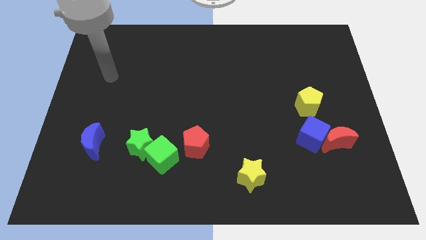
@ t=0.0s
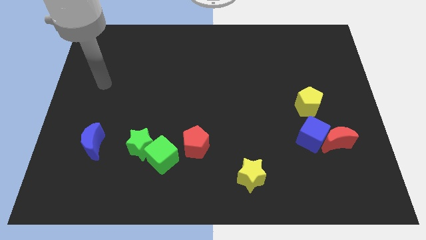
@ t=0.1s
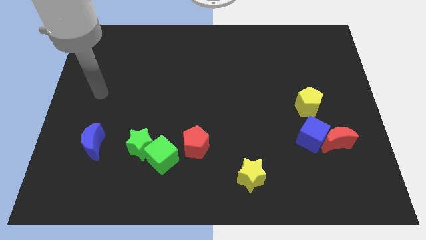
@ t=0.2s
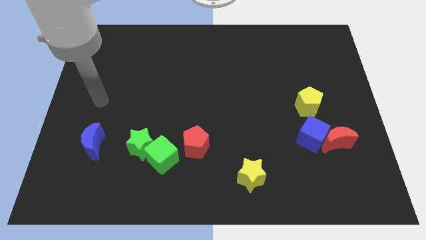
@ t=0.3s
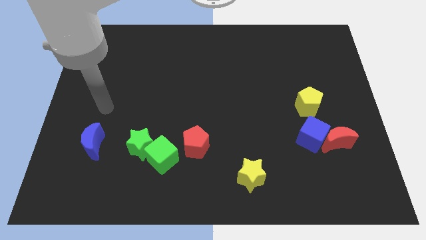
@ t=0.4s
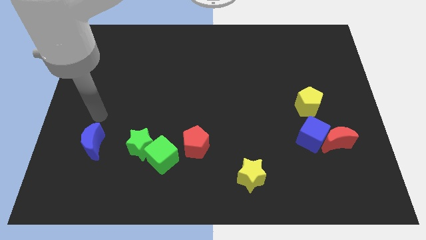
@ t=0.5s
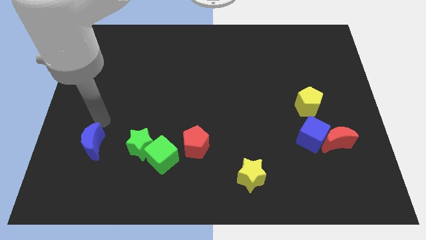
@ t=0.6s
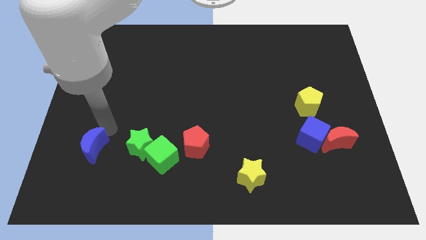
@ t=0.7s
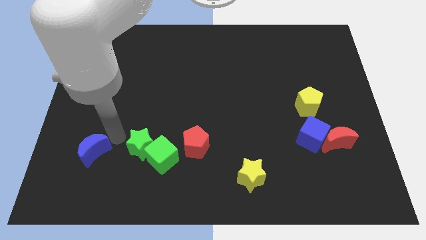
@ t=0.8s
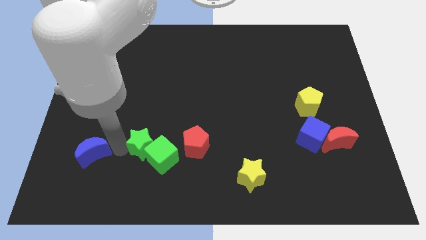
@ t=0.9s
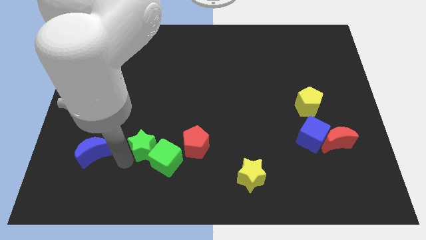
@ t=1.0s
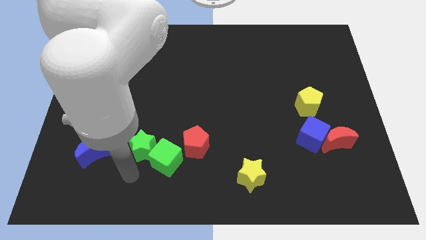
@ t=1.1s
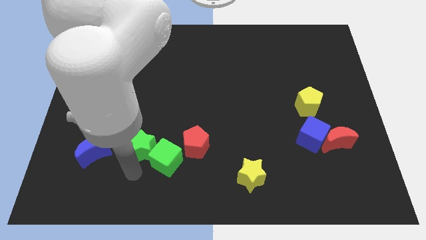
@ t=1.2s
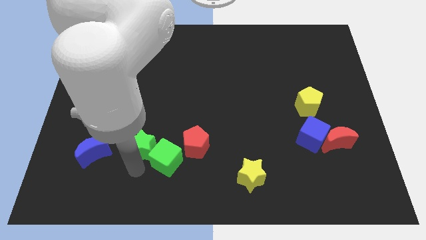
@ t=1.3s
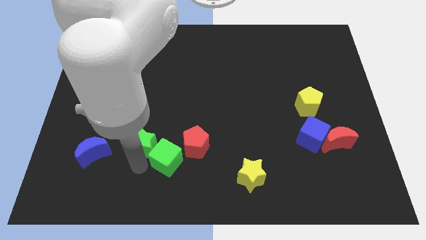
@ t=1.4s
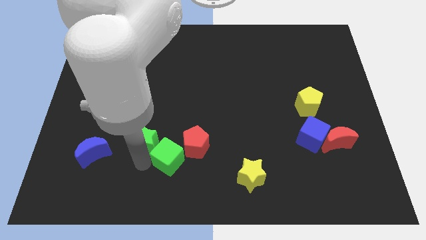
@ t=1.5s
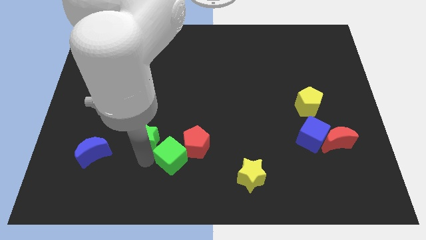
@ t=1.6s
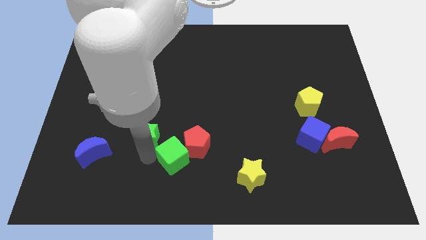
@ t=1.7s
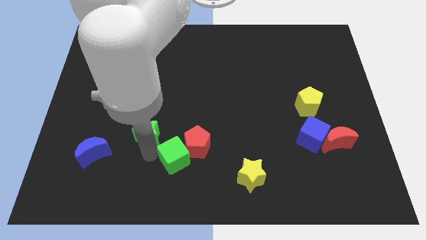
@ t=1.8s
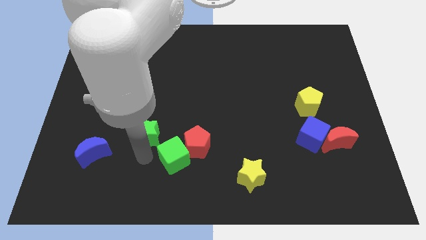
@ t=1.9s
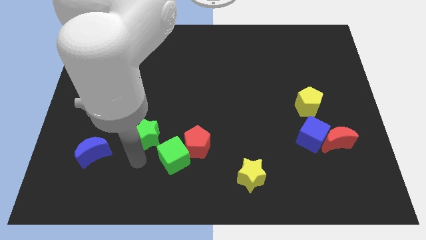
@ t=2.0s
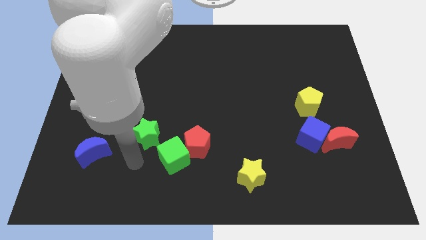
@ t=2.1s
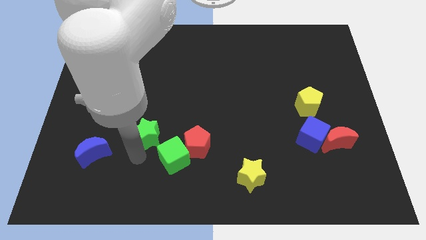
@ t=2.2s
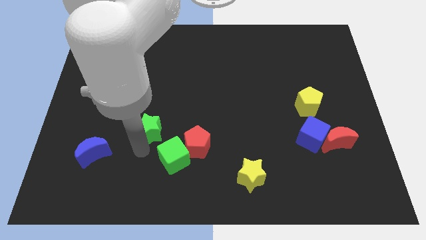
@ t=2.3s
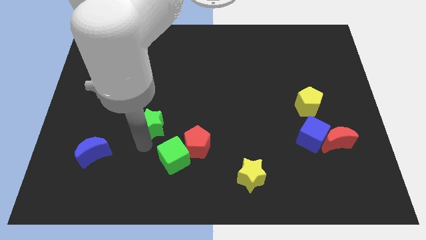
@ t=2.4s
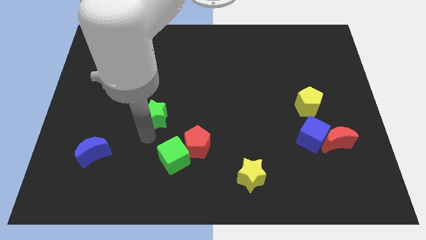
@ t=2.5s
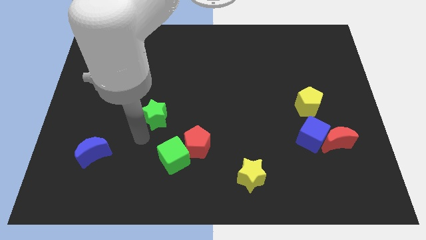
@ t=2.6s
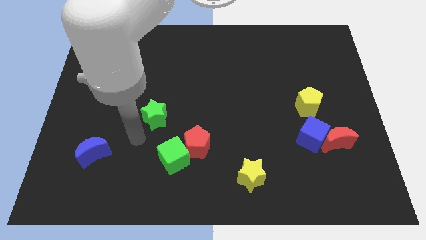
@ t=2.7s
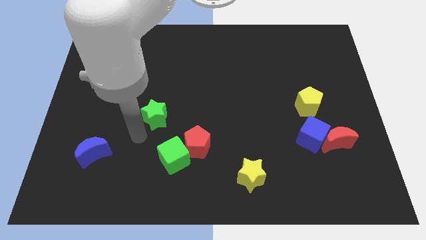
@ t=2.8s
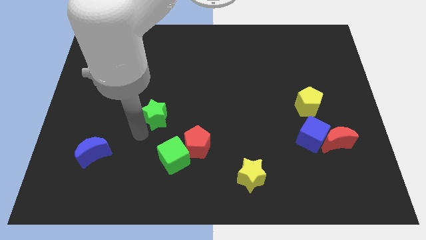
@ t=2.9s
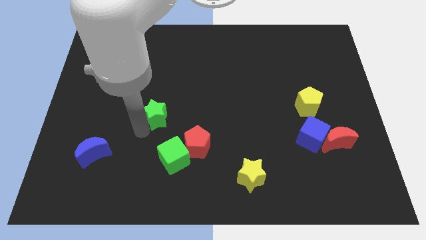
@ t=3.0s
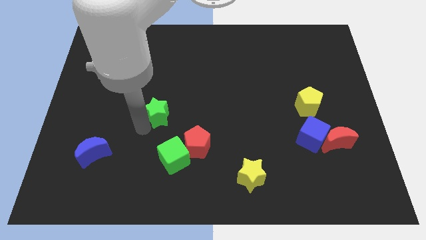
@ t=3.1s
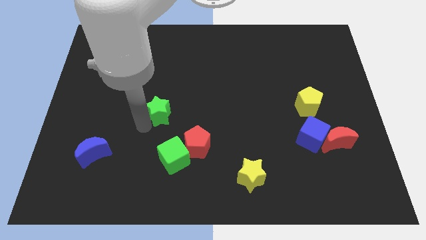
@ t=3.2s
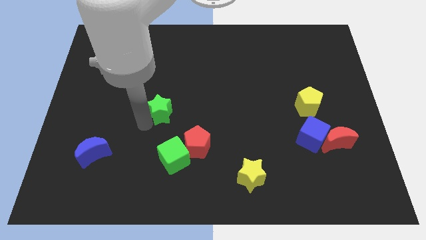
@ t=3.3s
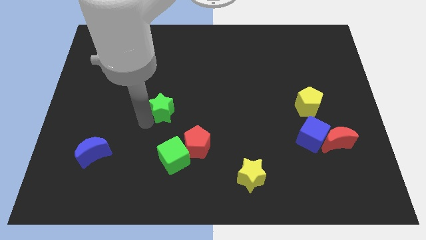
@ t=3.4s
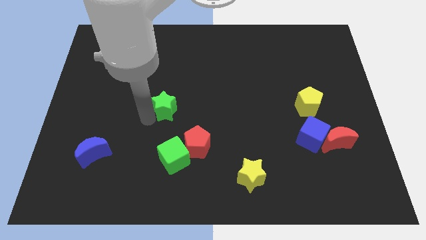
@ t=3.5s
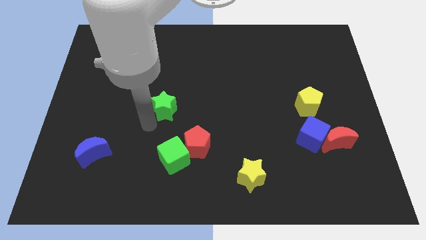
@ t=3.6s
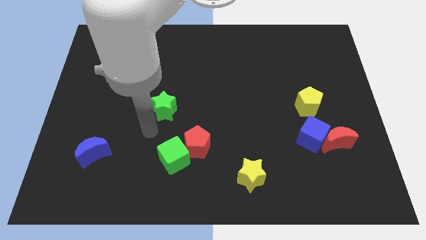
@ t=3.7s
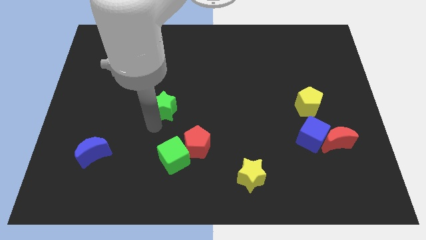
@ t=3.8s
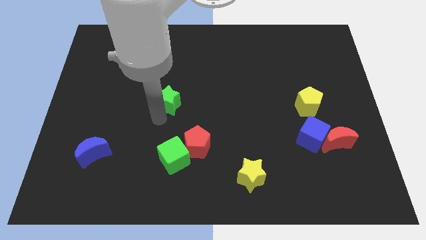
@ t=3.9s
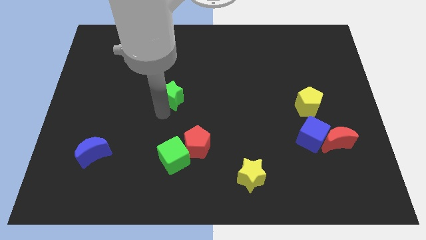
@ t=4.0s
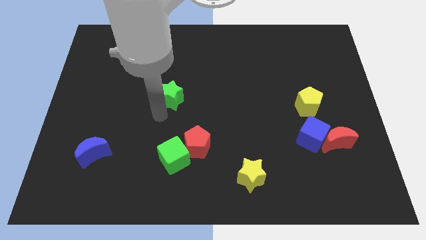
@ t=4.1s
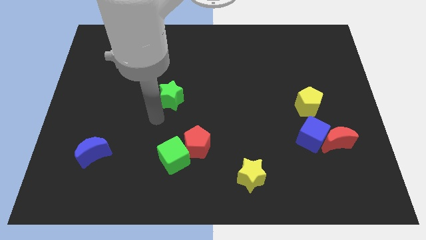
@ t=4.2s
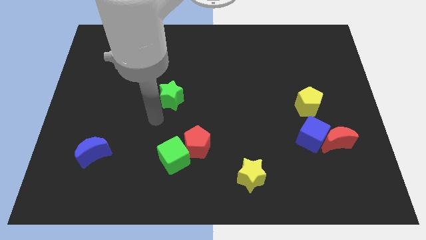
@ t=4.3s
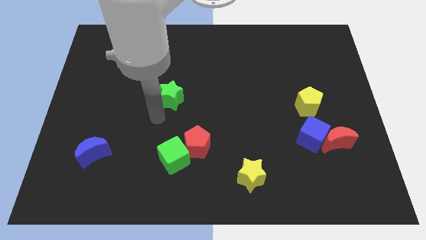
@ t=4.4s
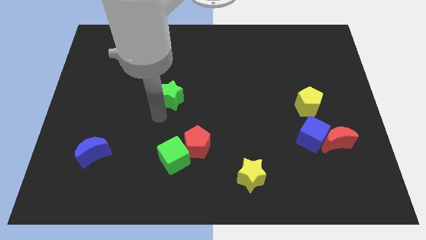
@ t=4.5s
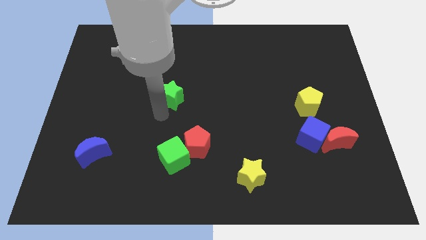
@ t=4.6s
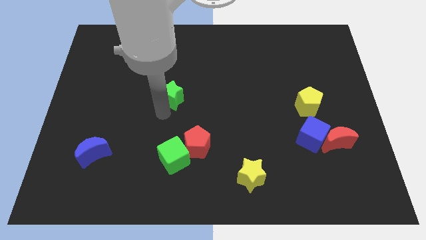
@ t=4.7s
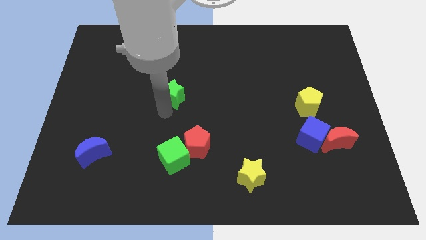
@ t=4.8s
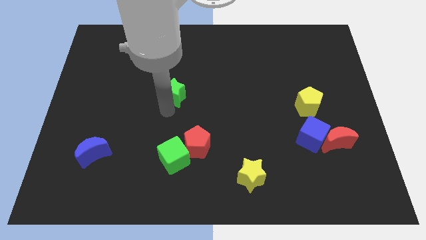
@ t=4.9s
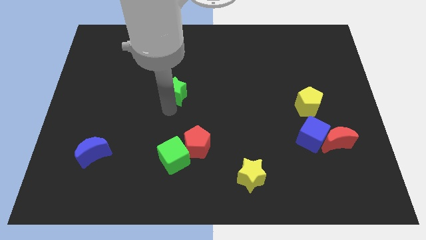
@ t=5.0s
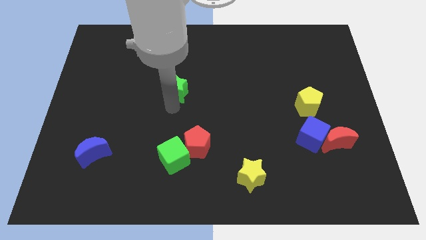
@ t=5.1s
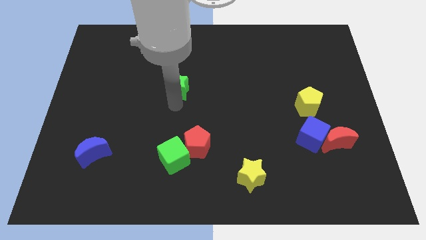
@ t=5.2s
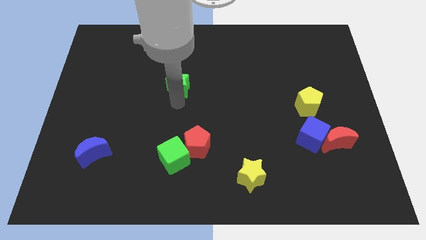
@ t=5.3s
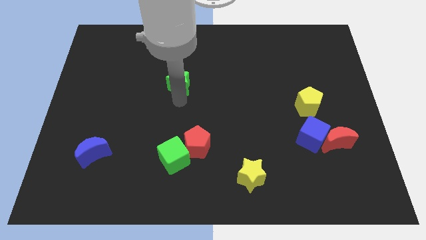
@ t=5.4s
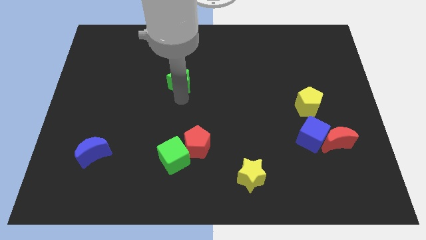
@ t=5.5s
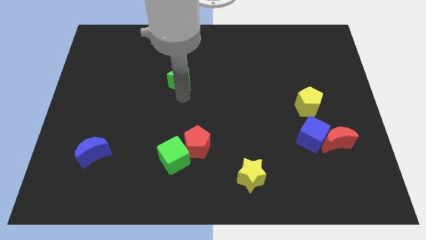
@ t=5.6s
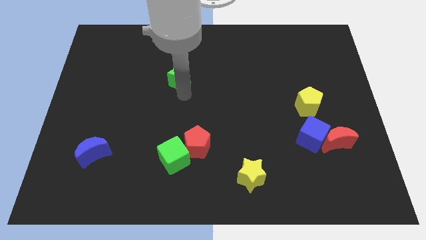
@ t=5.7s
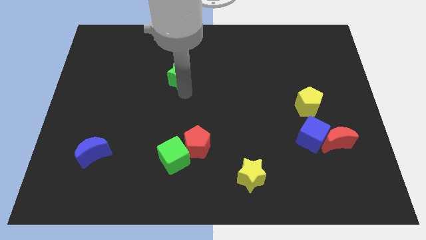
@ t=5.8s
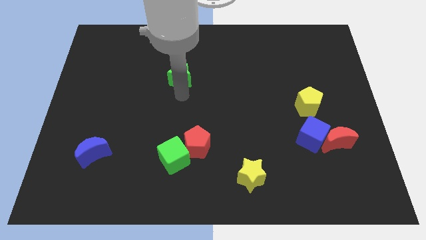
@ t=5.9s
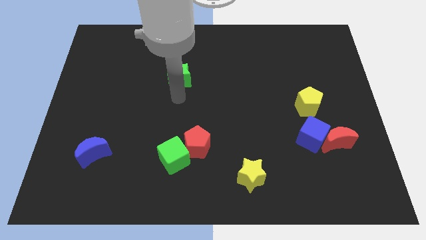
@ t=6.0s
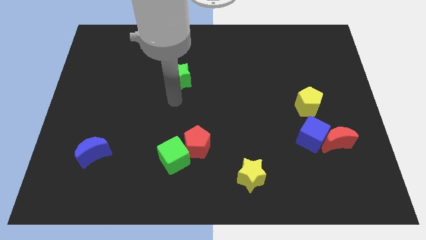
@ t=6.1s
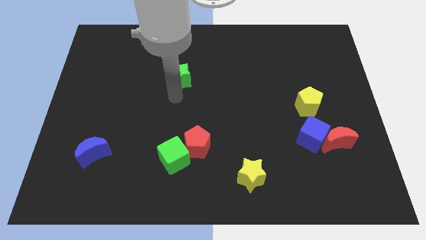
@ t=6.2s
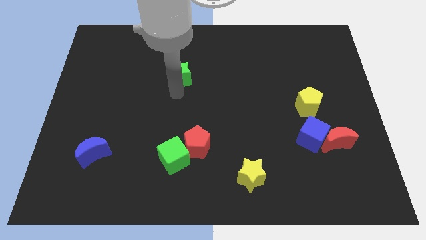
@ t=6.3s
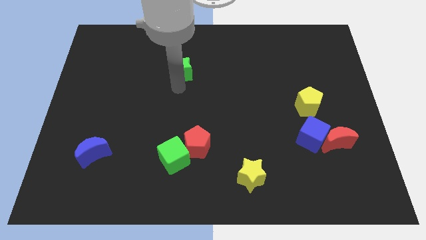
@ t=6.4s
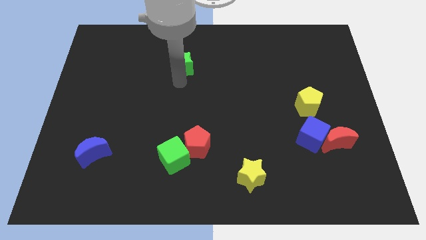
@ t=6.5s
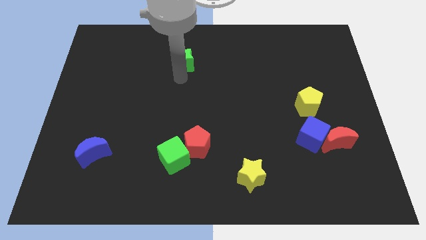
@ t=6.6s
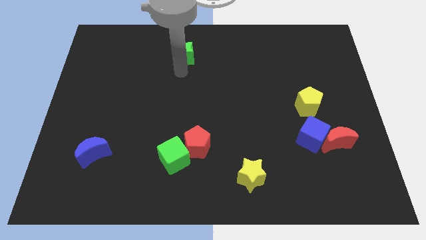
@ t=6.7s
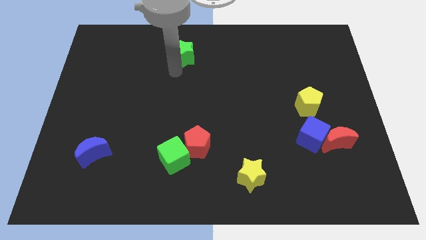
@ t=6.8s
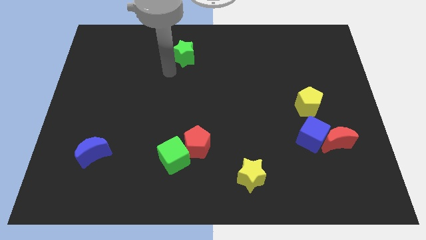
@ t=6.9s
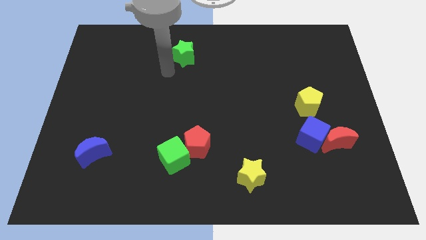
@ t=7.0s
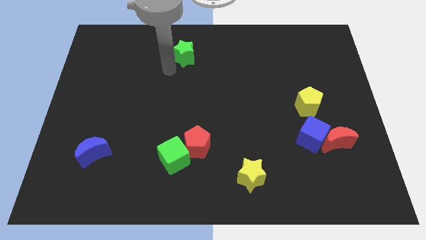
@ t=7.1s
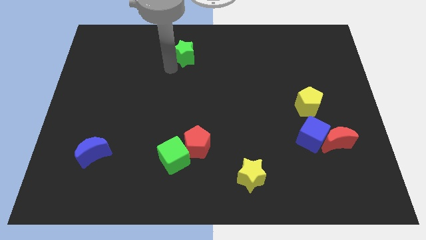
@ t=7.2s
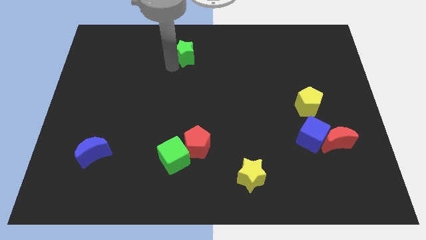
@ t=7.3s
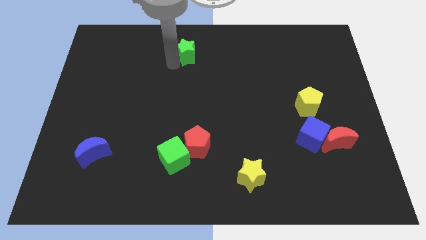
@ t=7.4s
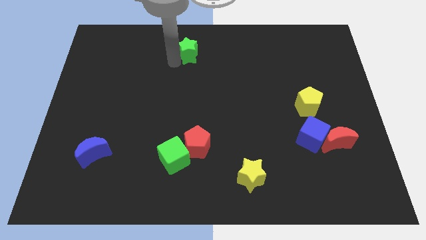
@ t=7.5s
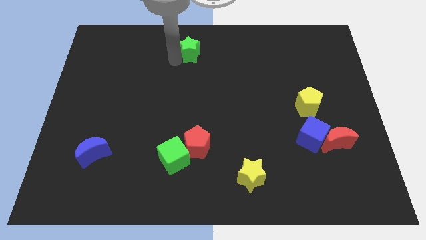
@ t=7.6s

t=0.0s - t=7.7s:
move the green star to the top side
